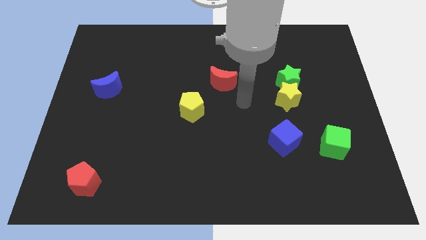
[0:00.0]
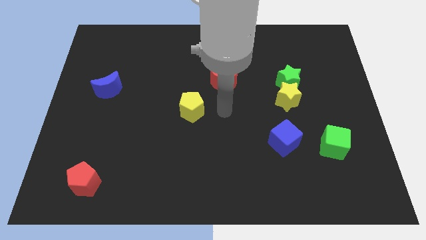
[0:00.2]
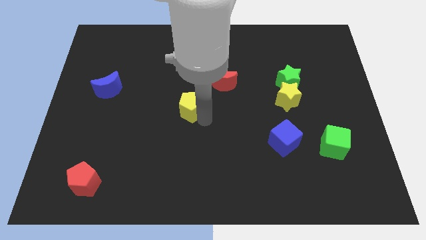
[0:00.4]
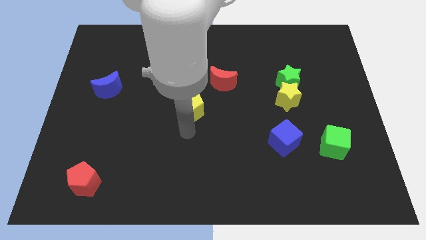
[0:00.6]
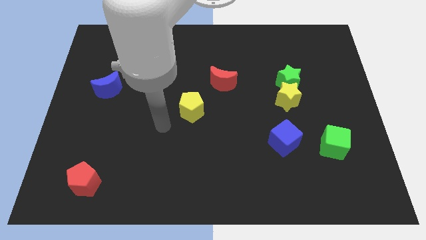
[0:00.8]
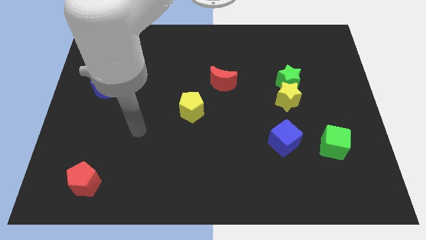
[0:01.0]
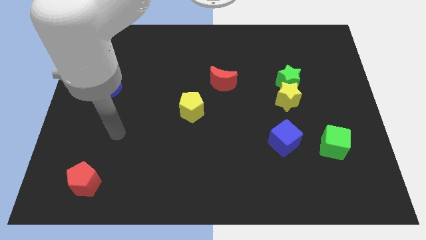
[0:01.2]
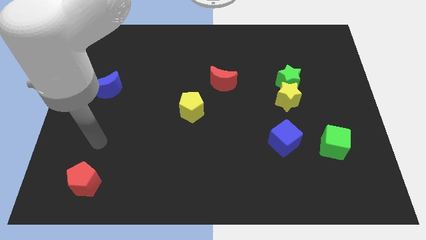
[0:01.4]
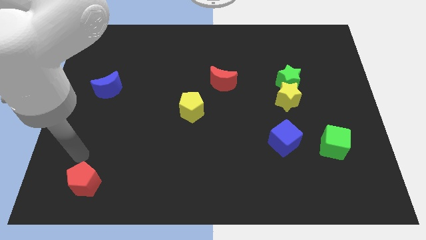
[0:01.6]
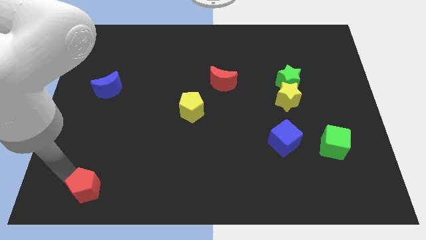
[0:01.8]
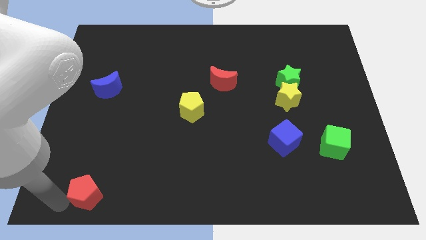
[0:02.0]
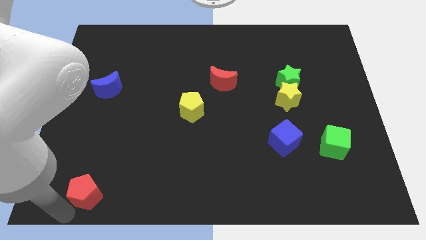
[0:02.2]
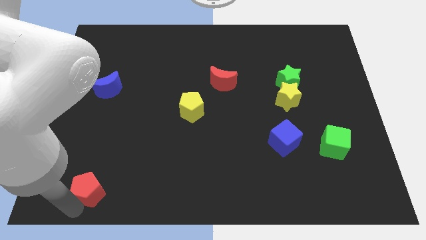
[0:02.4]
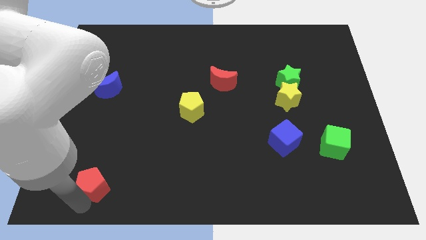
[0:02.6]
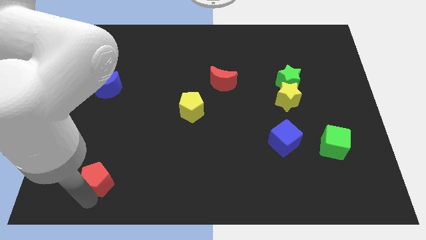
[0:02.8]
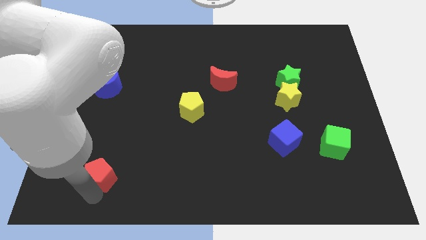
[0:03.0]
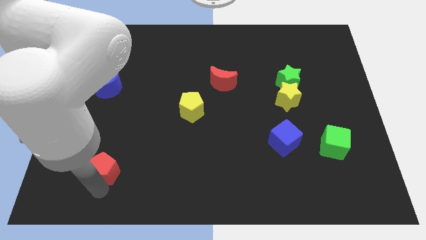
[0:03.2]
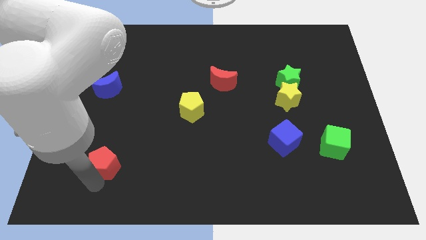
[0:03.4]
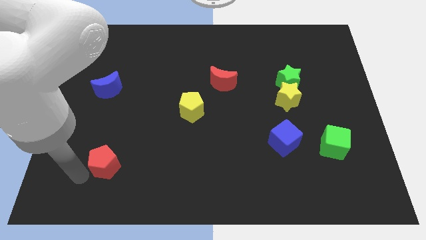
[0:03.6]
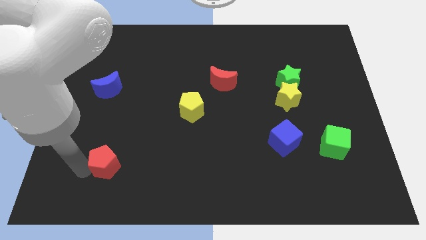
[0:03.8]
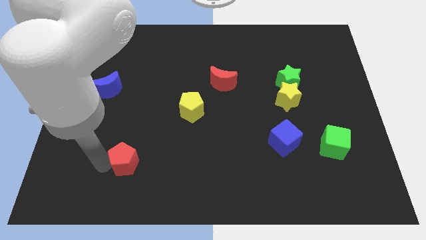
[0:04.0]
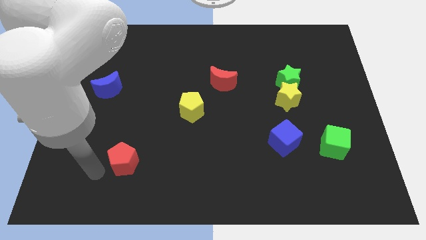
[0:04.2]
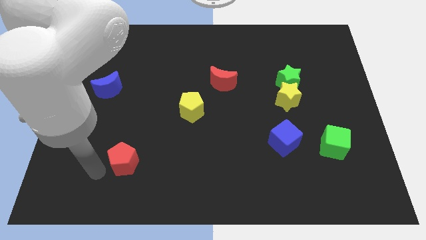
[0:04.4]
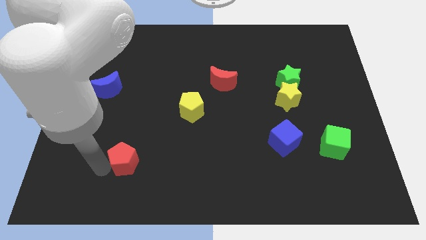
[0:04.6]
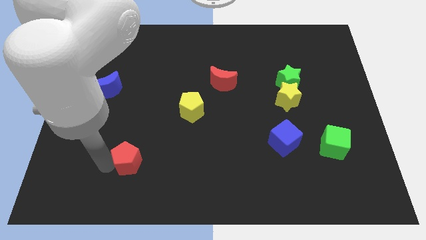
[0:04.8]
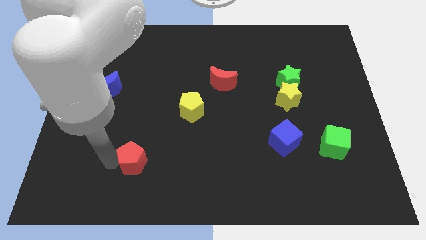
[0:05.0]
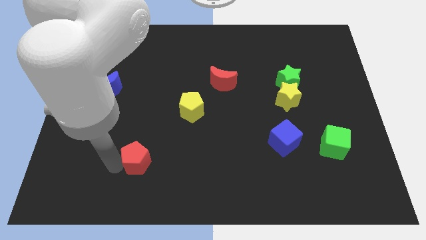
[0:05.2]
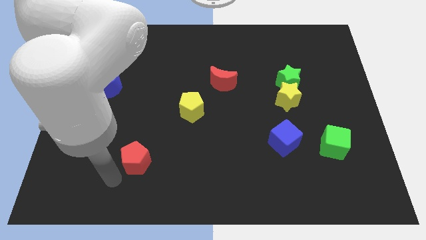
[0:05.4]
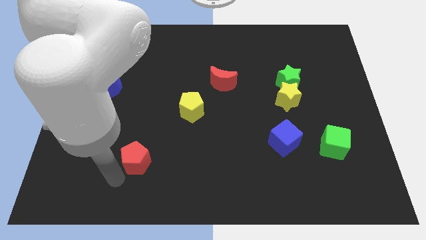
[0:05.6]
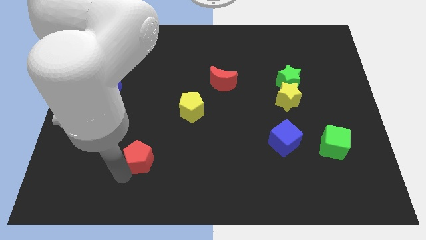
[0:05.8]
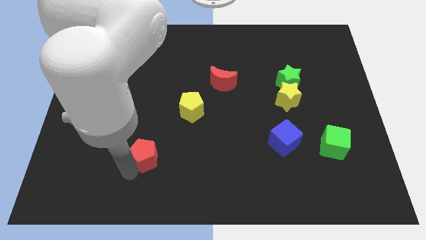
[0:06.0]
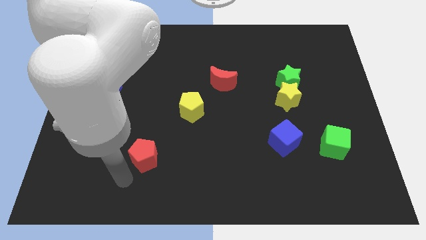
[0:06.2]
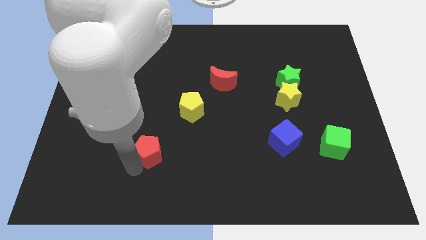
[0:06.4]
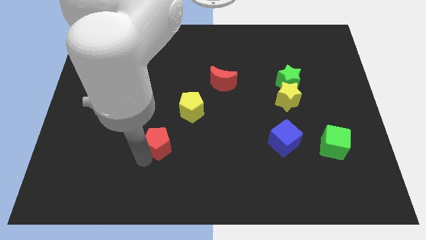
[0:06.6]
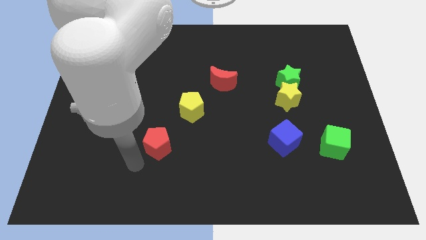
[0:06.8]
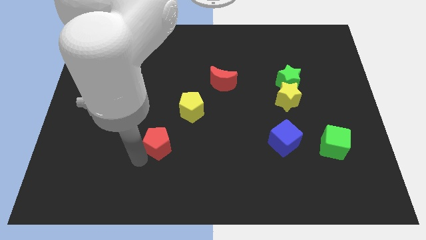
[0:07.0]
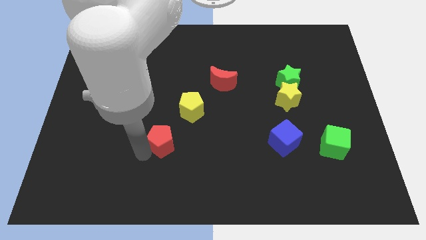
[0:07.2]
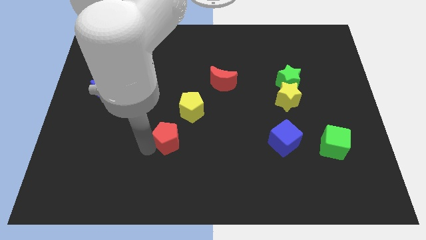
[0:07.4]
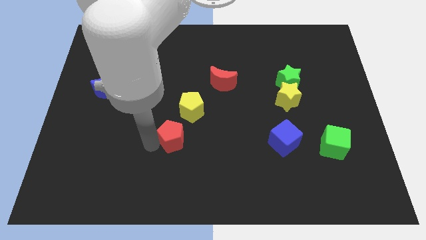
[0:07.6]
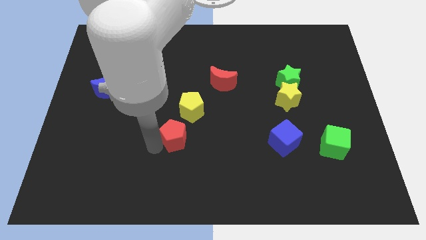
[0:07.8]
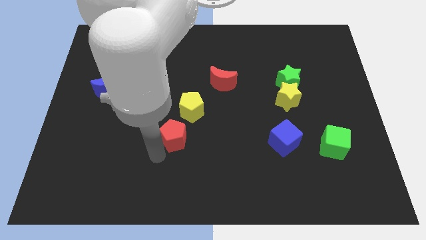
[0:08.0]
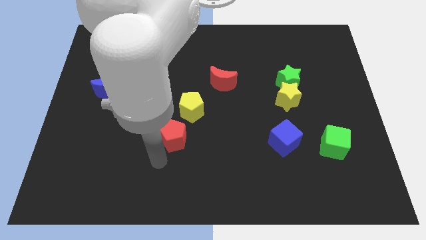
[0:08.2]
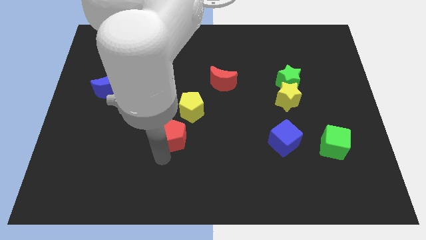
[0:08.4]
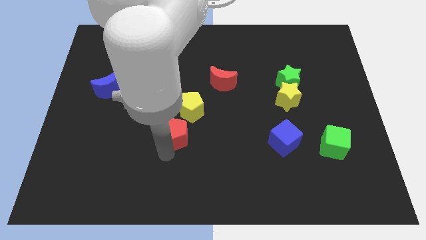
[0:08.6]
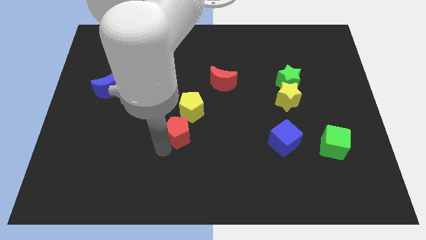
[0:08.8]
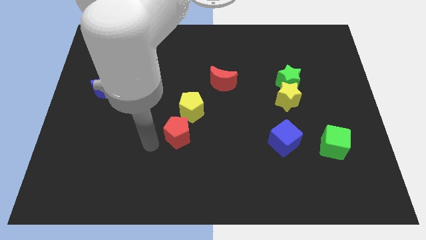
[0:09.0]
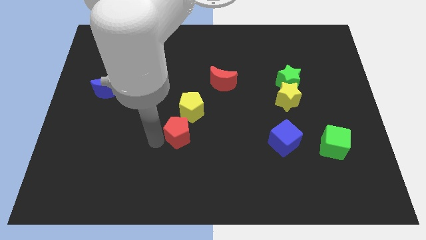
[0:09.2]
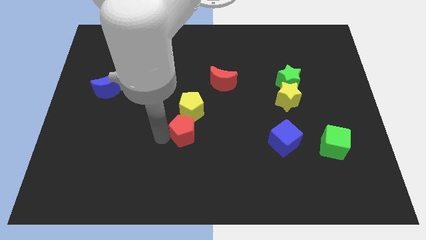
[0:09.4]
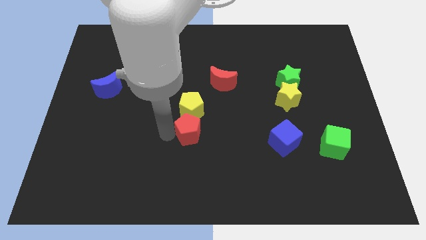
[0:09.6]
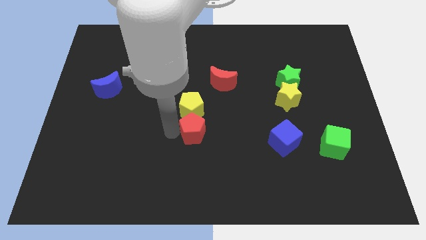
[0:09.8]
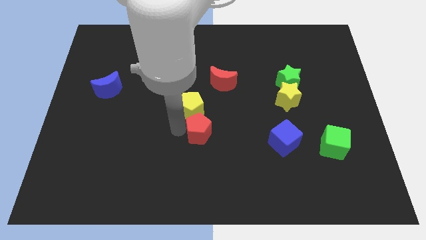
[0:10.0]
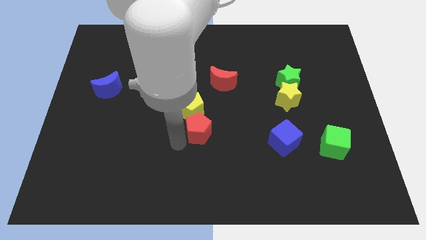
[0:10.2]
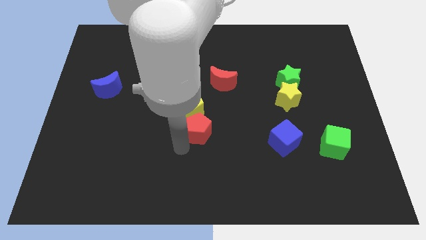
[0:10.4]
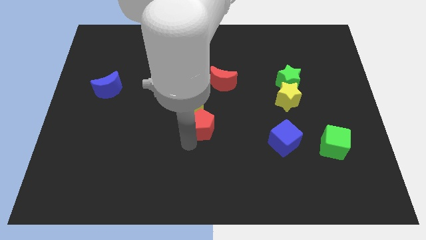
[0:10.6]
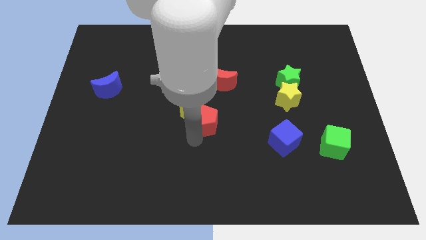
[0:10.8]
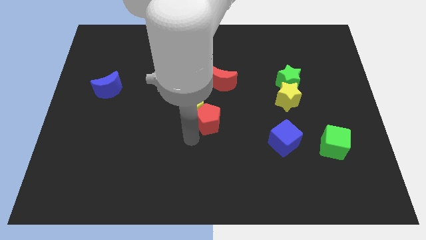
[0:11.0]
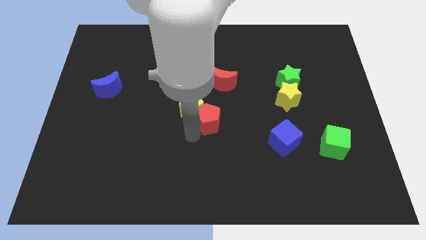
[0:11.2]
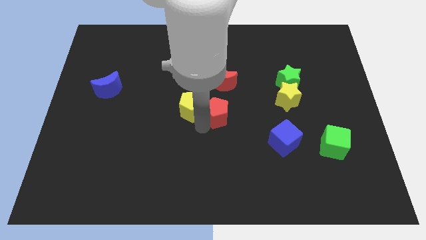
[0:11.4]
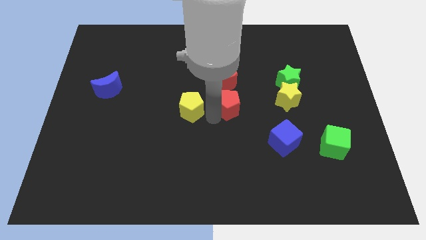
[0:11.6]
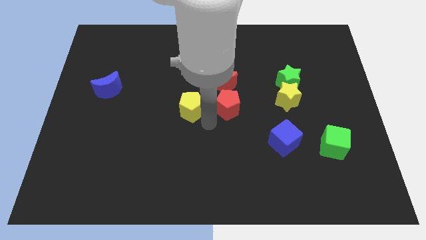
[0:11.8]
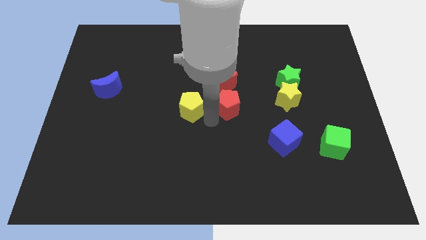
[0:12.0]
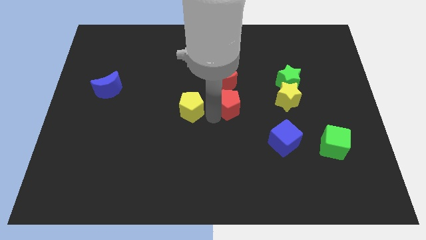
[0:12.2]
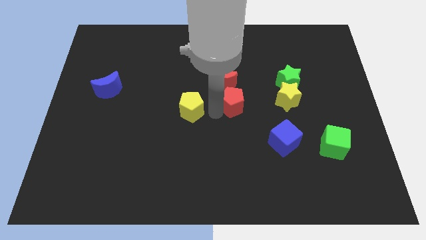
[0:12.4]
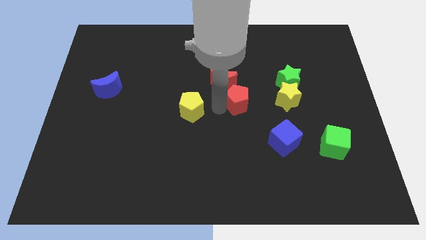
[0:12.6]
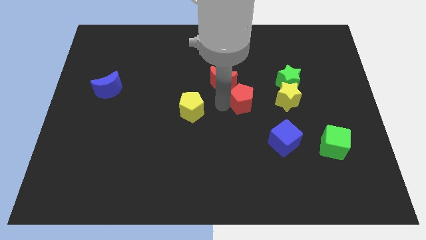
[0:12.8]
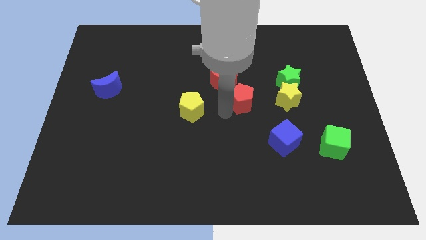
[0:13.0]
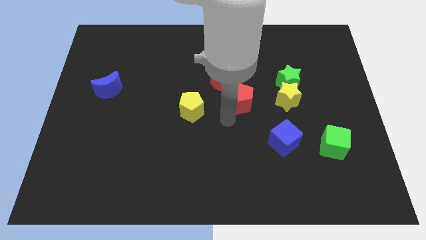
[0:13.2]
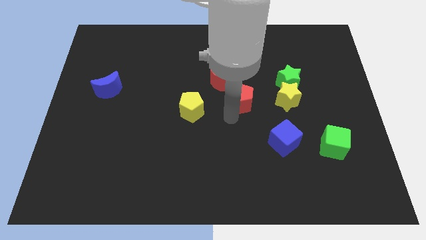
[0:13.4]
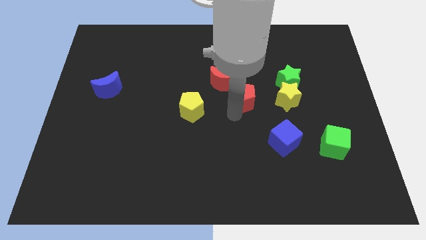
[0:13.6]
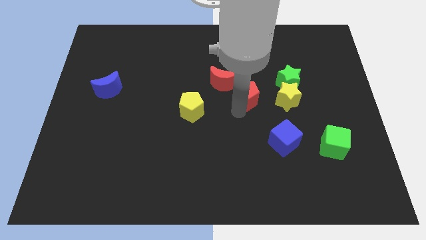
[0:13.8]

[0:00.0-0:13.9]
push the red pentagon just right of the red moon
